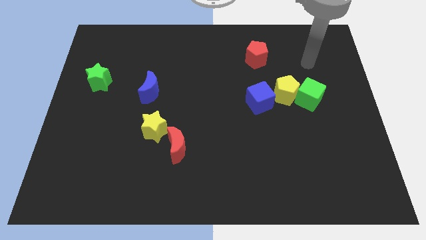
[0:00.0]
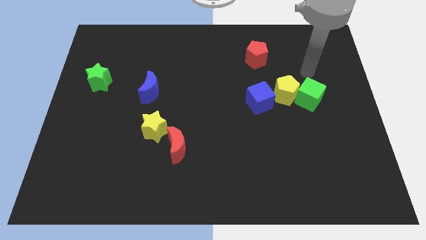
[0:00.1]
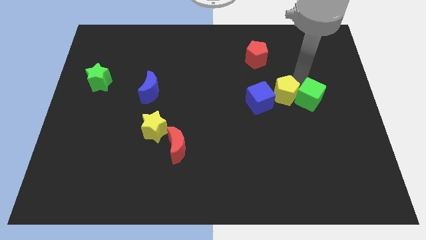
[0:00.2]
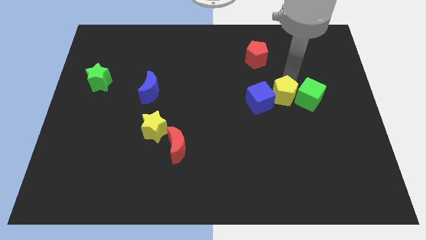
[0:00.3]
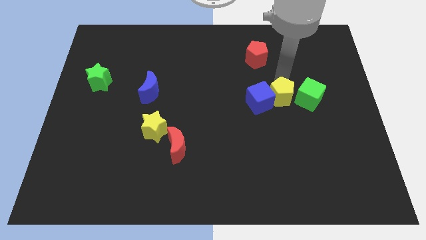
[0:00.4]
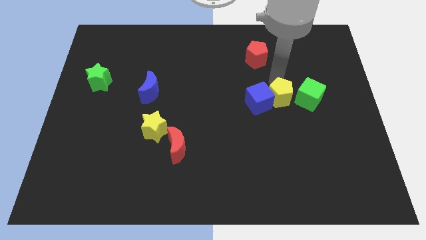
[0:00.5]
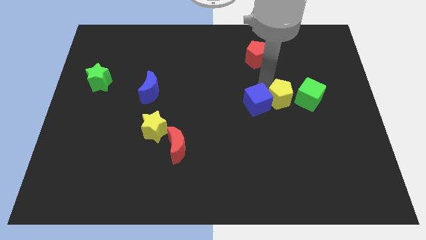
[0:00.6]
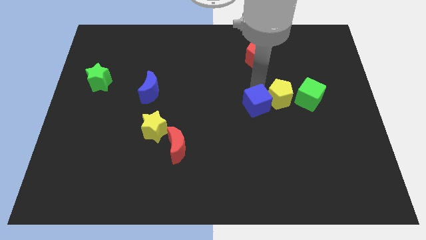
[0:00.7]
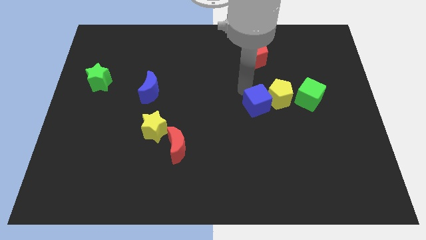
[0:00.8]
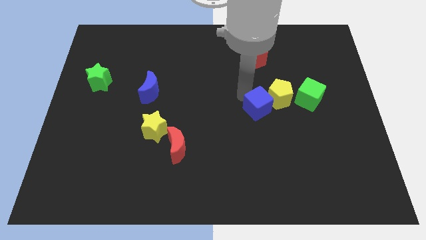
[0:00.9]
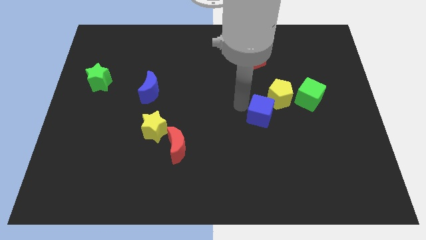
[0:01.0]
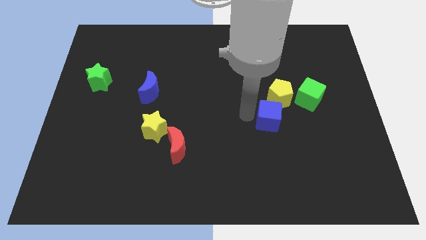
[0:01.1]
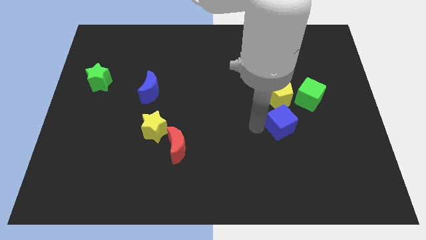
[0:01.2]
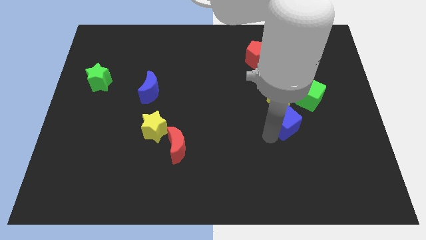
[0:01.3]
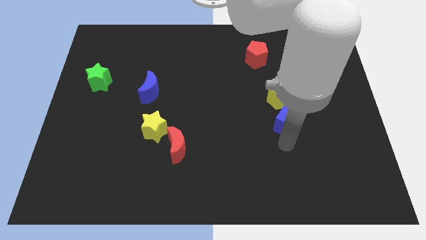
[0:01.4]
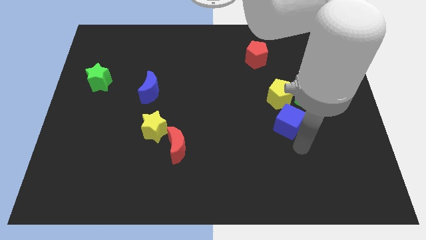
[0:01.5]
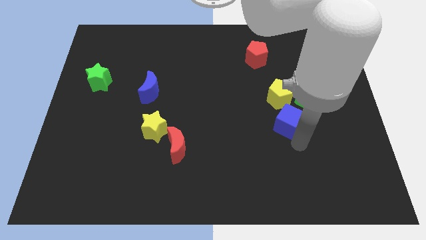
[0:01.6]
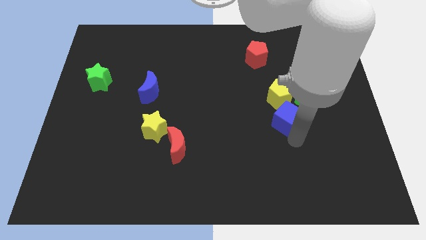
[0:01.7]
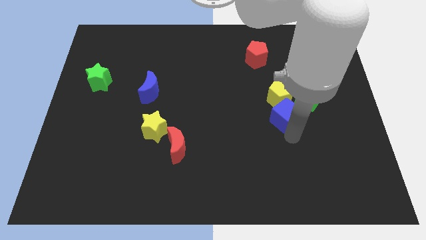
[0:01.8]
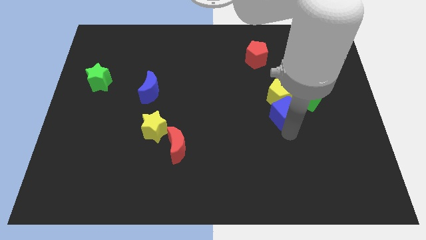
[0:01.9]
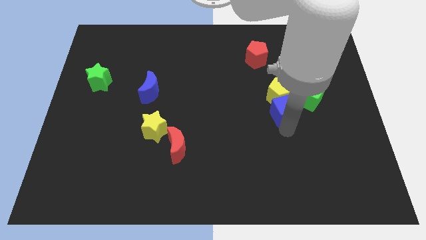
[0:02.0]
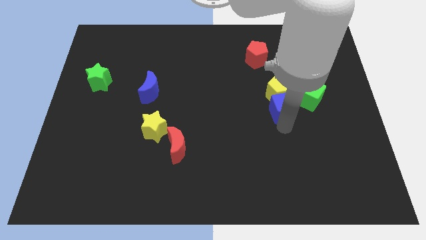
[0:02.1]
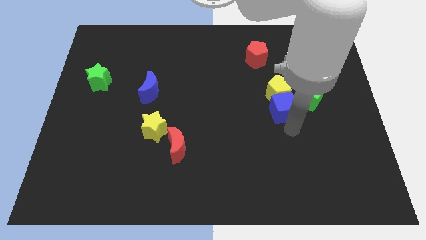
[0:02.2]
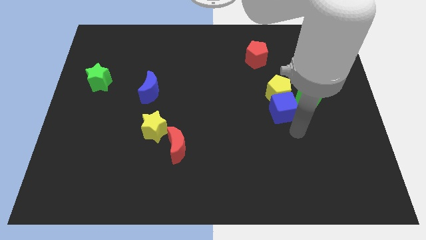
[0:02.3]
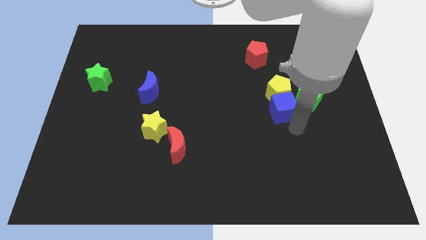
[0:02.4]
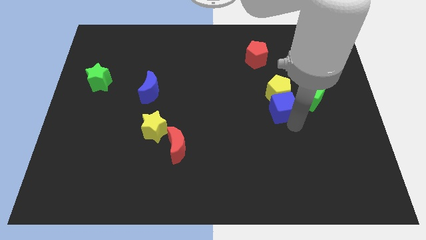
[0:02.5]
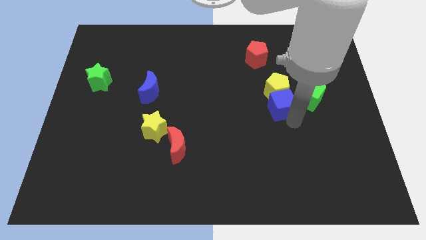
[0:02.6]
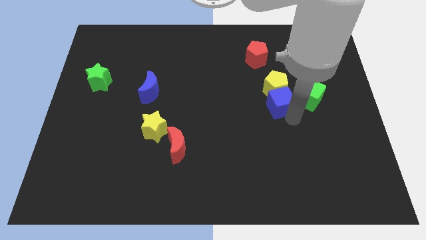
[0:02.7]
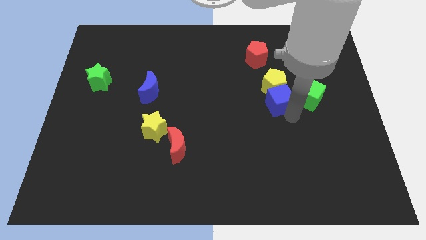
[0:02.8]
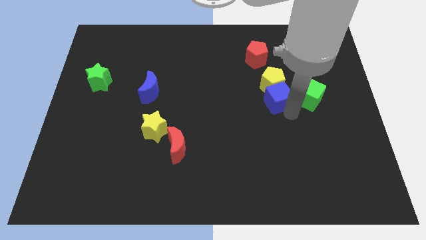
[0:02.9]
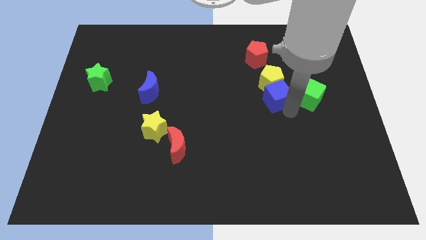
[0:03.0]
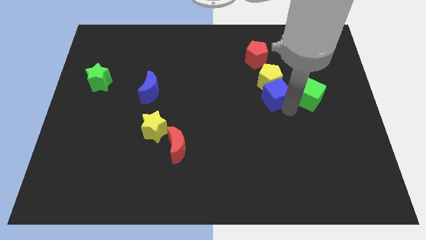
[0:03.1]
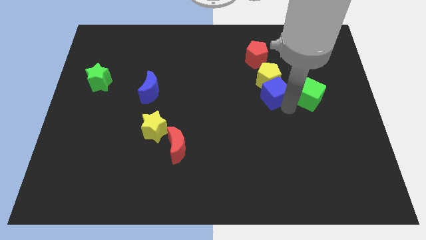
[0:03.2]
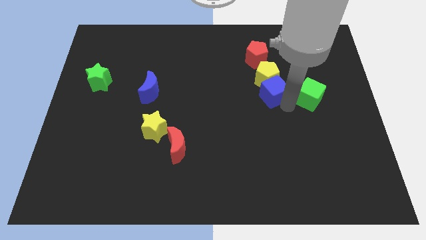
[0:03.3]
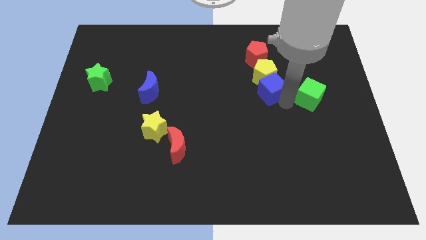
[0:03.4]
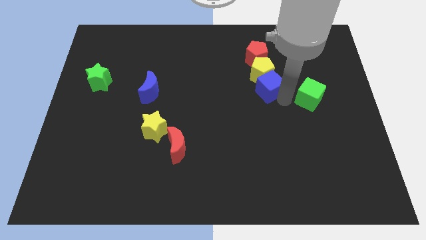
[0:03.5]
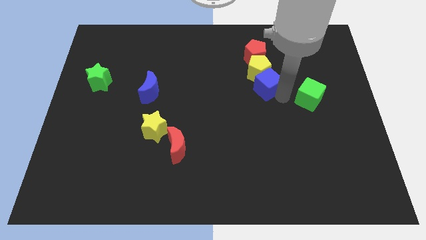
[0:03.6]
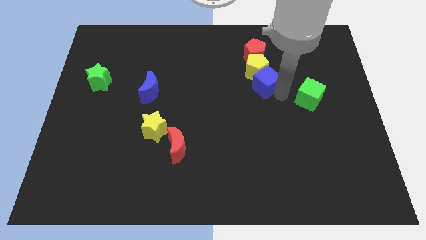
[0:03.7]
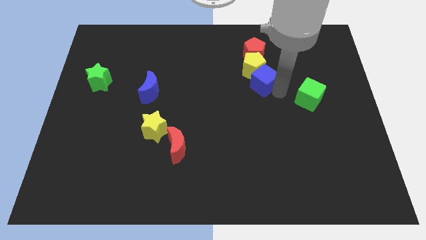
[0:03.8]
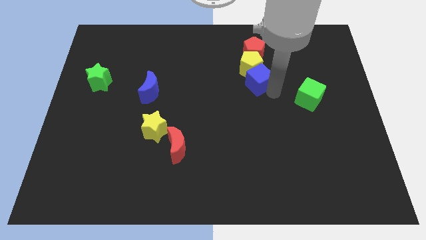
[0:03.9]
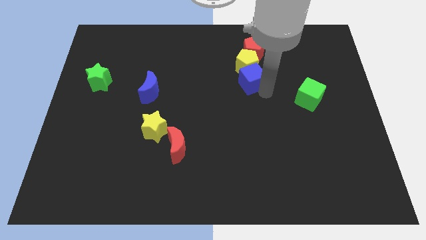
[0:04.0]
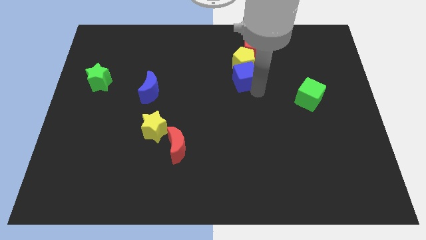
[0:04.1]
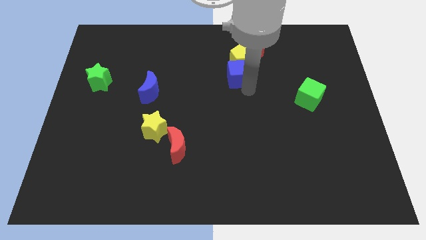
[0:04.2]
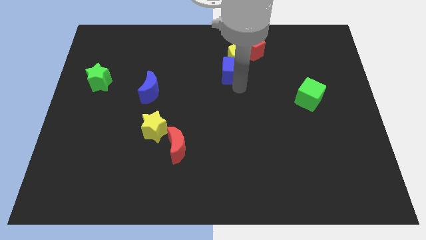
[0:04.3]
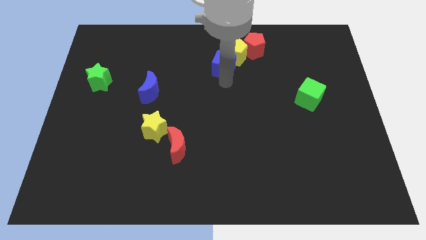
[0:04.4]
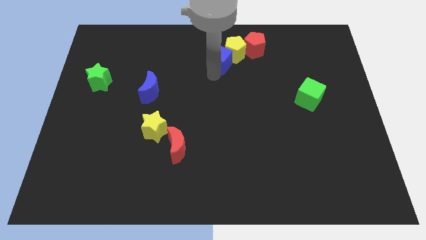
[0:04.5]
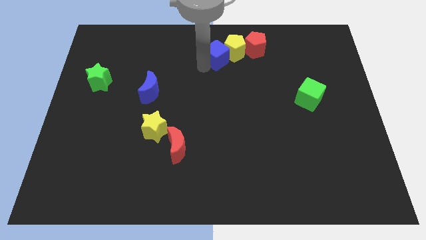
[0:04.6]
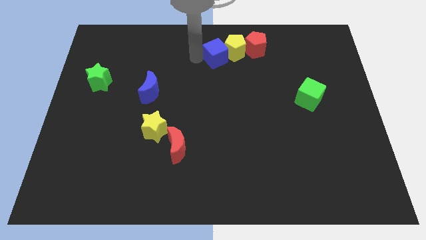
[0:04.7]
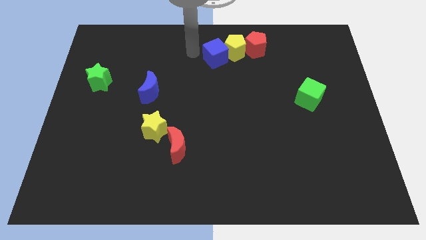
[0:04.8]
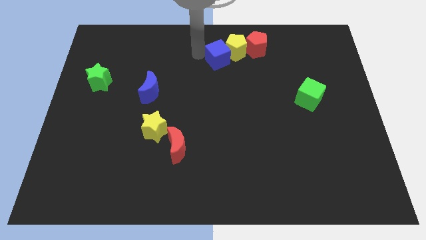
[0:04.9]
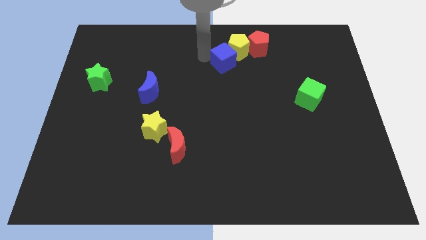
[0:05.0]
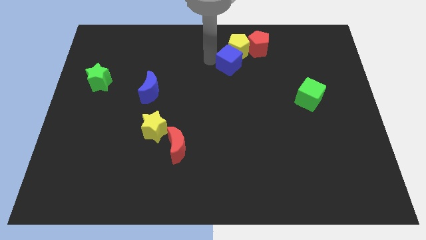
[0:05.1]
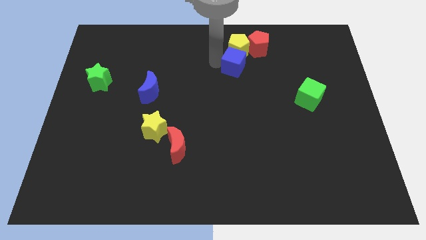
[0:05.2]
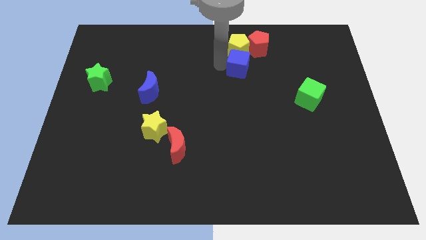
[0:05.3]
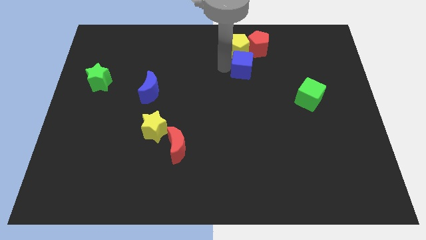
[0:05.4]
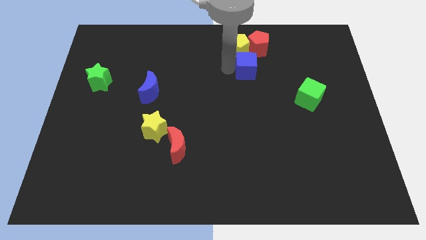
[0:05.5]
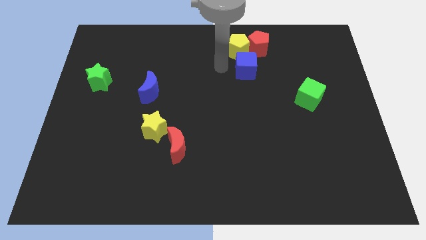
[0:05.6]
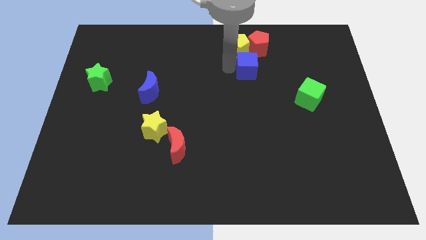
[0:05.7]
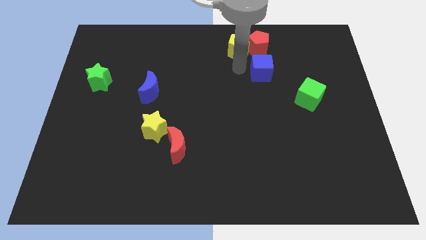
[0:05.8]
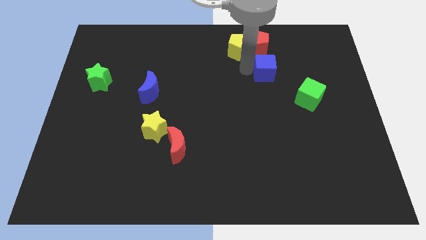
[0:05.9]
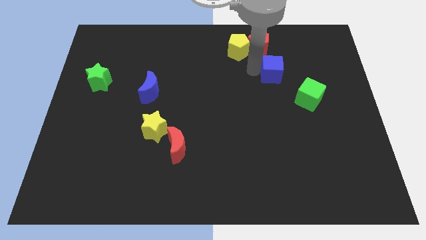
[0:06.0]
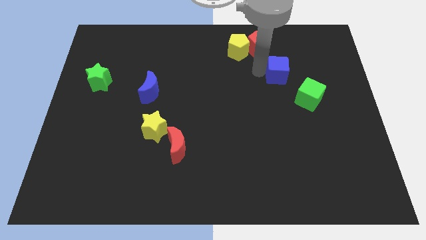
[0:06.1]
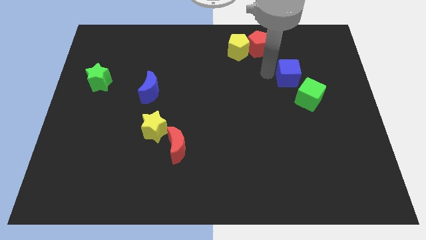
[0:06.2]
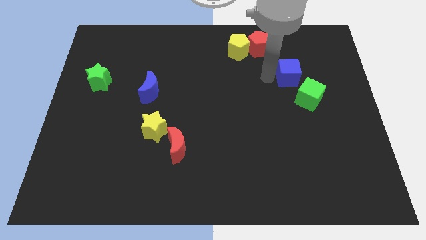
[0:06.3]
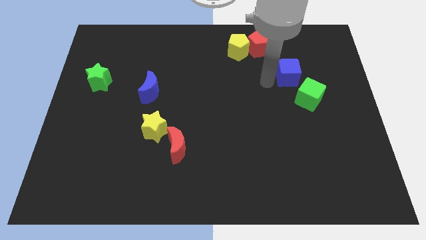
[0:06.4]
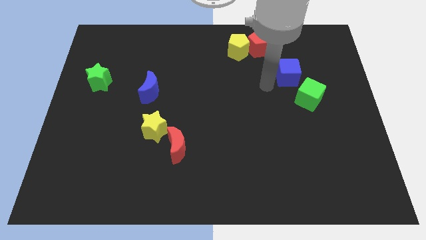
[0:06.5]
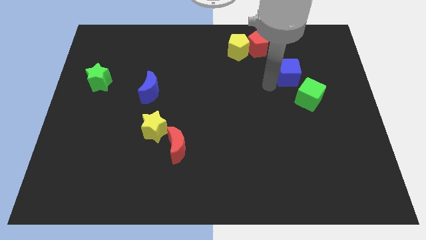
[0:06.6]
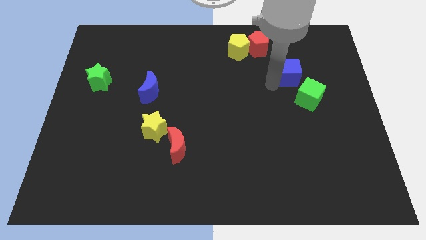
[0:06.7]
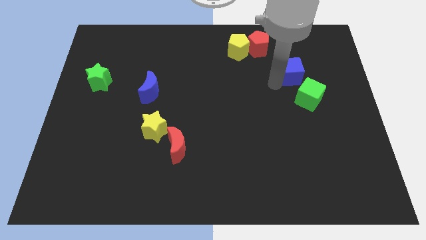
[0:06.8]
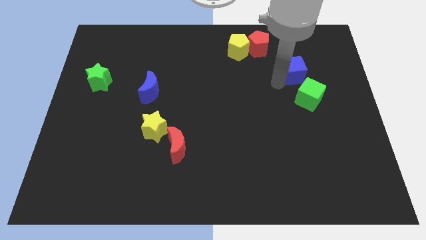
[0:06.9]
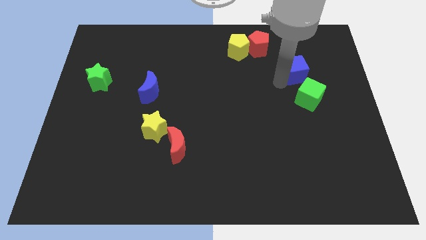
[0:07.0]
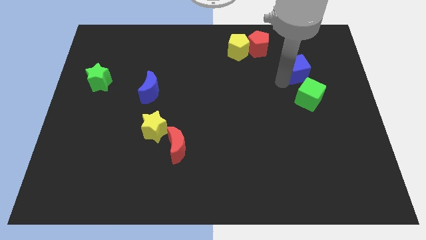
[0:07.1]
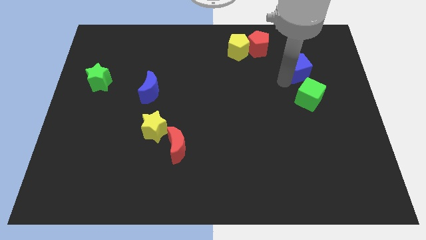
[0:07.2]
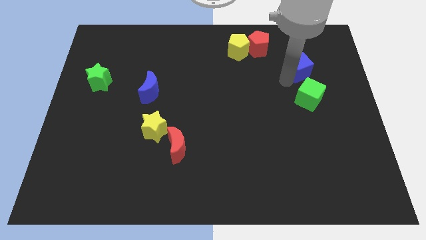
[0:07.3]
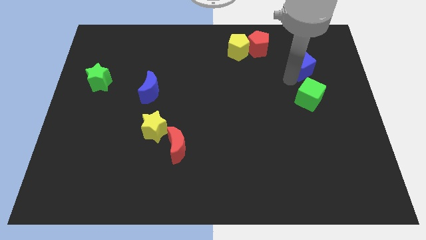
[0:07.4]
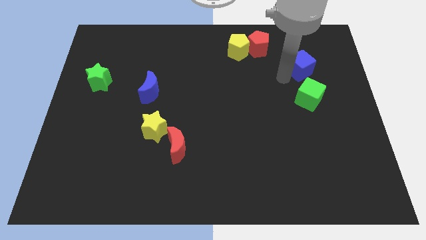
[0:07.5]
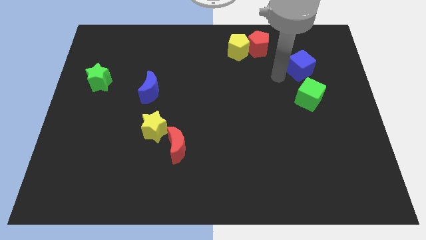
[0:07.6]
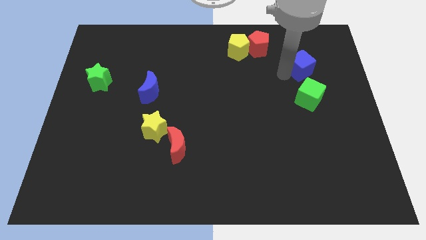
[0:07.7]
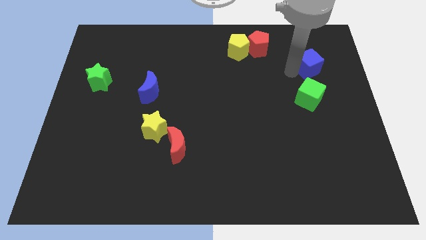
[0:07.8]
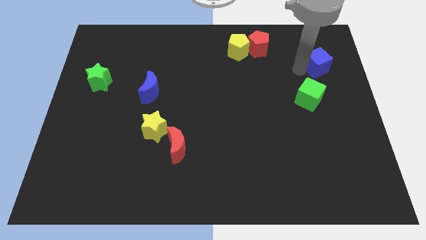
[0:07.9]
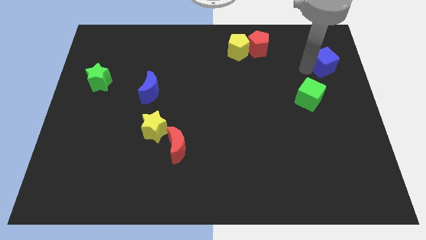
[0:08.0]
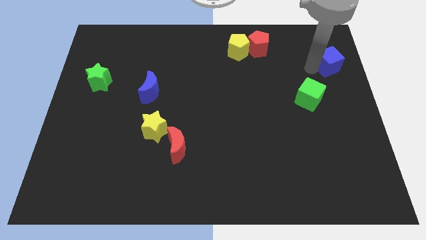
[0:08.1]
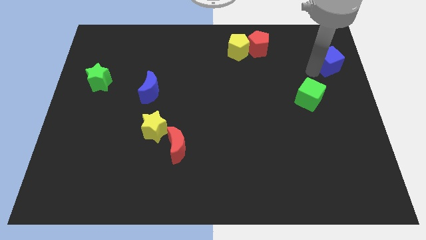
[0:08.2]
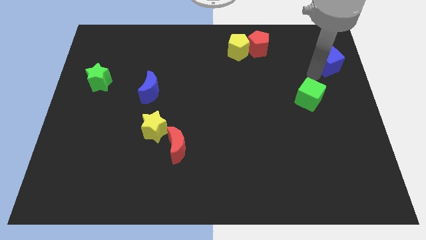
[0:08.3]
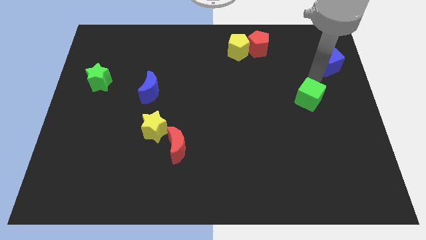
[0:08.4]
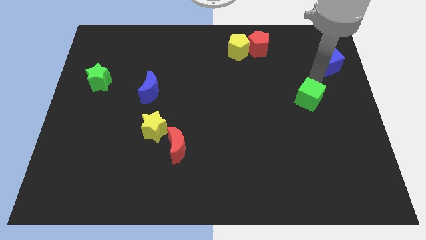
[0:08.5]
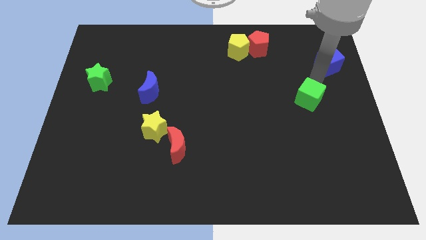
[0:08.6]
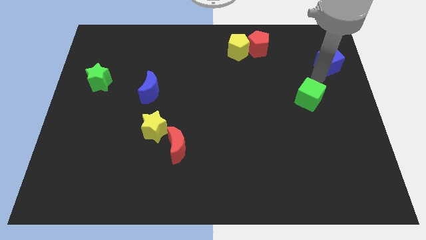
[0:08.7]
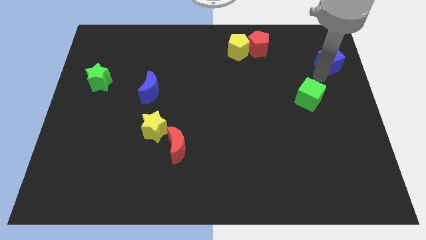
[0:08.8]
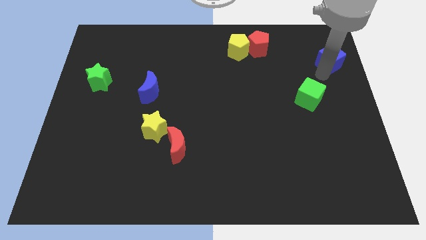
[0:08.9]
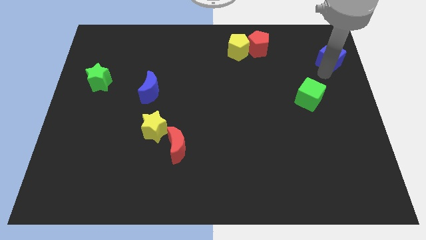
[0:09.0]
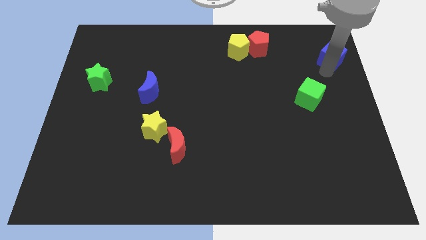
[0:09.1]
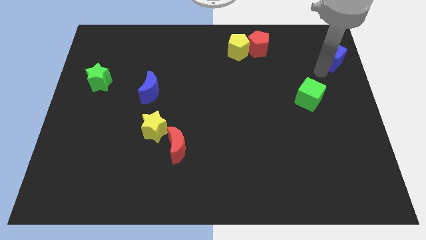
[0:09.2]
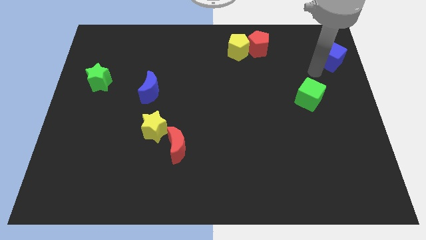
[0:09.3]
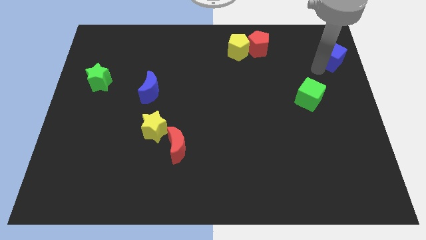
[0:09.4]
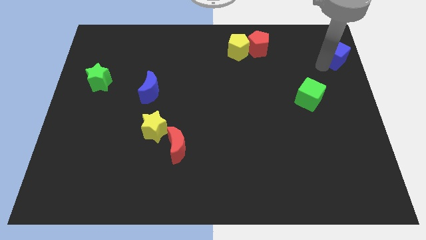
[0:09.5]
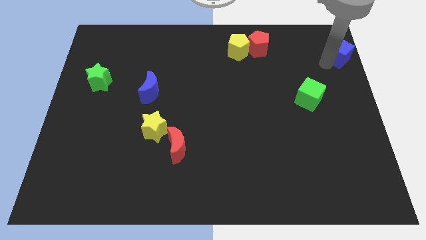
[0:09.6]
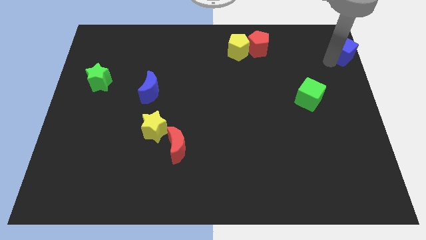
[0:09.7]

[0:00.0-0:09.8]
push the blue cube to the top right
